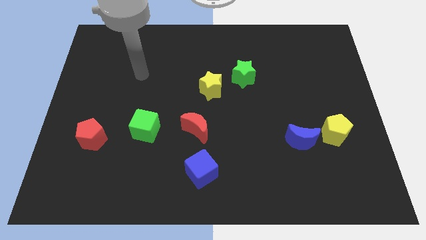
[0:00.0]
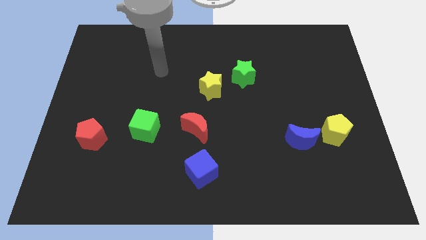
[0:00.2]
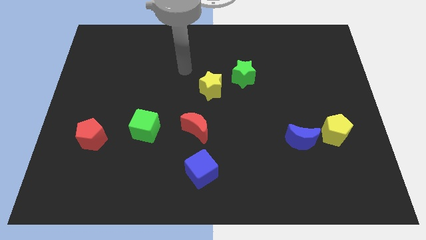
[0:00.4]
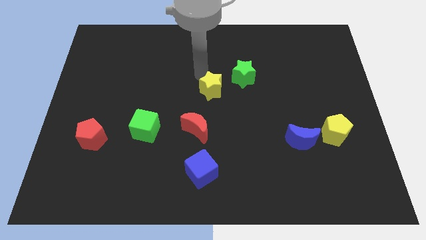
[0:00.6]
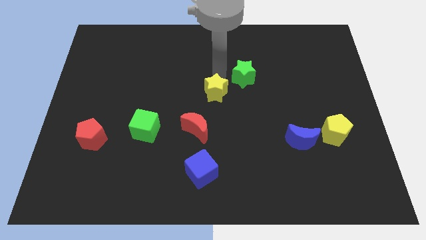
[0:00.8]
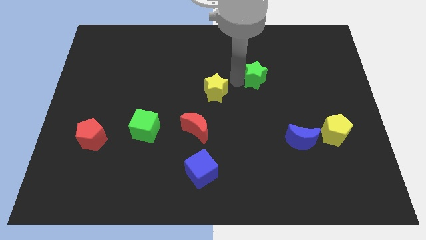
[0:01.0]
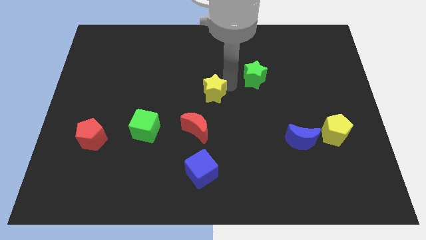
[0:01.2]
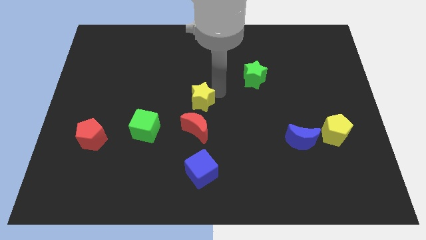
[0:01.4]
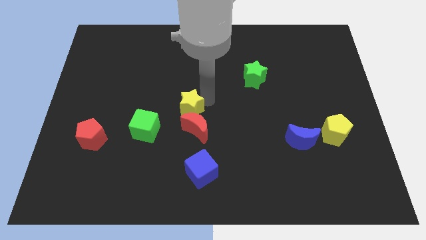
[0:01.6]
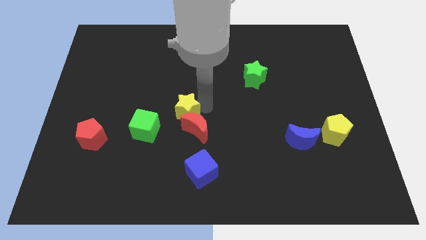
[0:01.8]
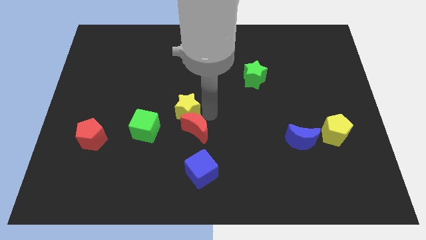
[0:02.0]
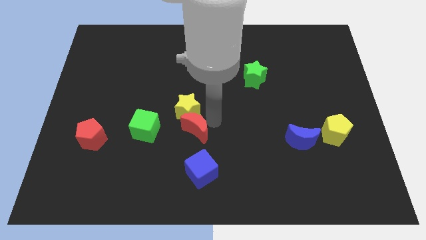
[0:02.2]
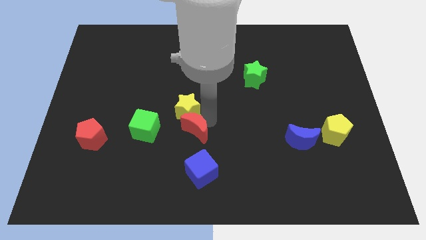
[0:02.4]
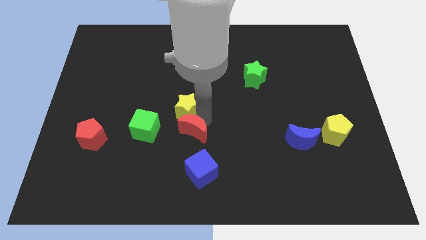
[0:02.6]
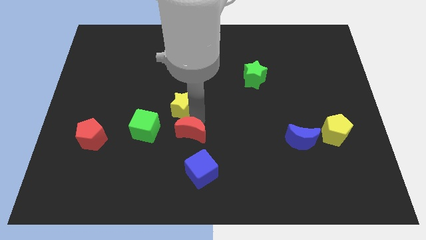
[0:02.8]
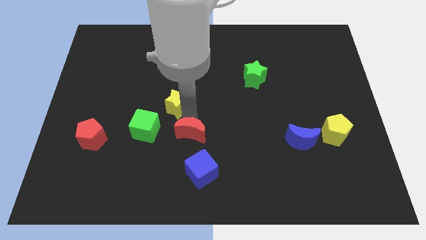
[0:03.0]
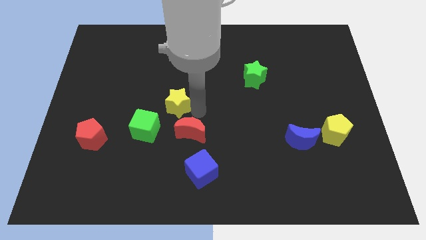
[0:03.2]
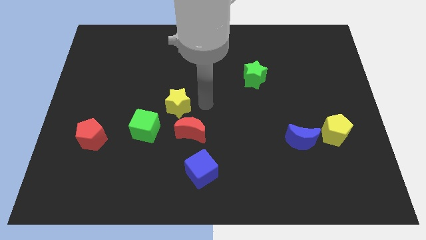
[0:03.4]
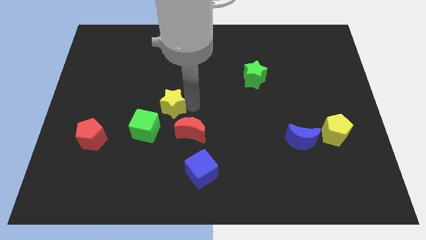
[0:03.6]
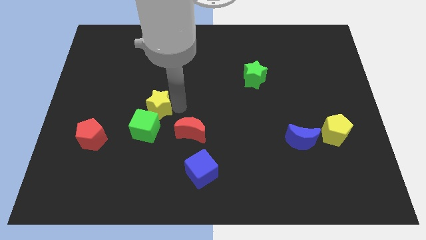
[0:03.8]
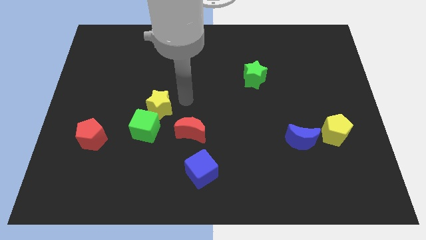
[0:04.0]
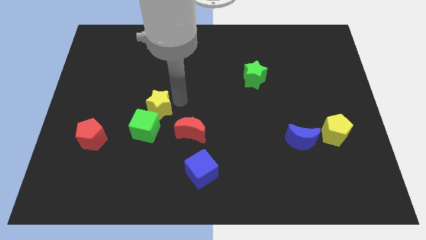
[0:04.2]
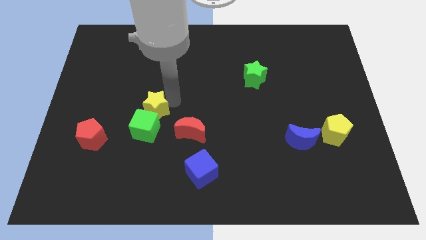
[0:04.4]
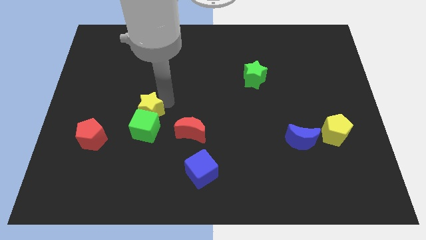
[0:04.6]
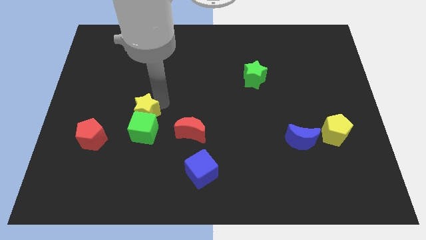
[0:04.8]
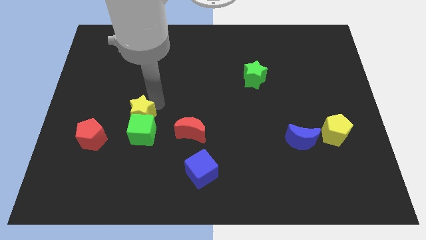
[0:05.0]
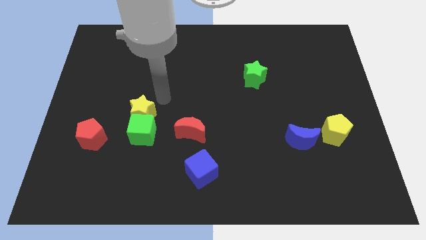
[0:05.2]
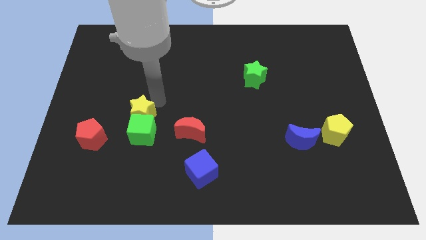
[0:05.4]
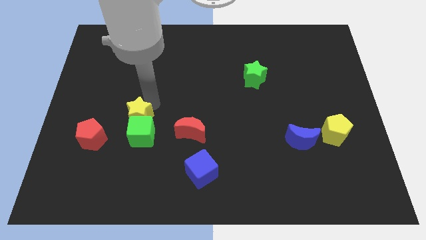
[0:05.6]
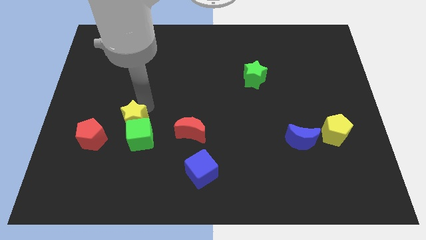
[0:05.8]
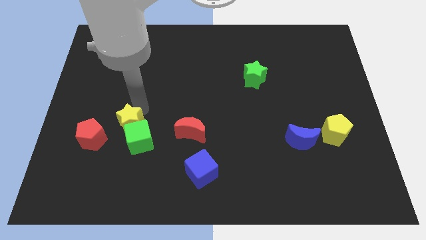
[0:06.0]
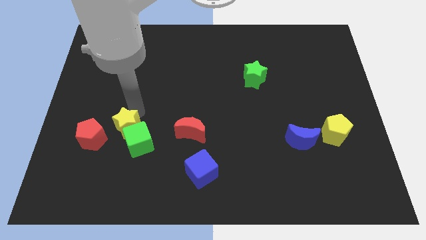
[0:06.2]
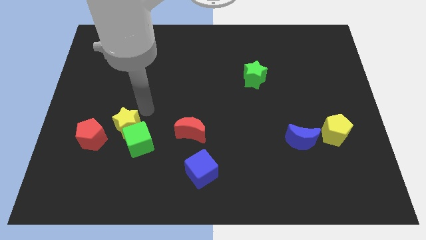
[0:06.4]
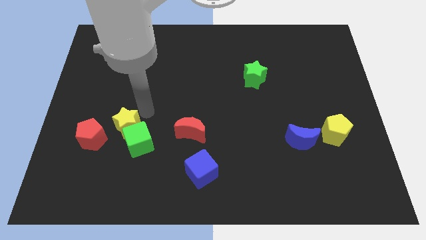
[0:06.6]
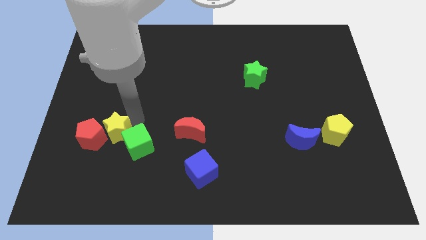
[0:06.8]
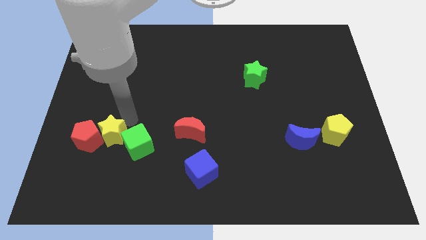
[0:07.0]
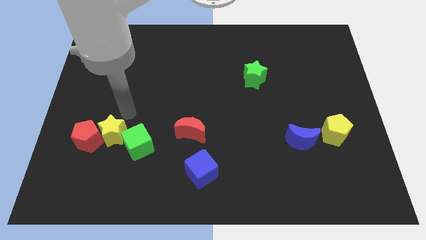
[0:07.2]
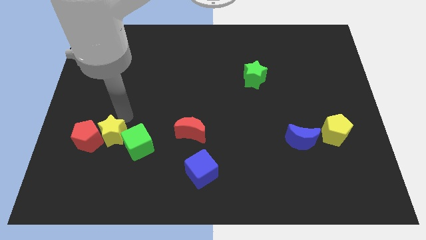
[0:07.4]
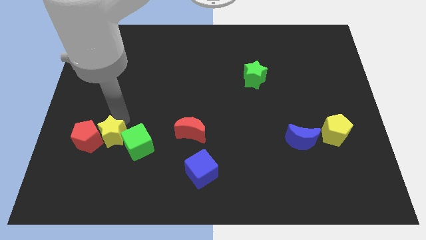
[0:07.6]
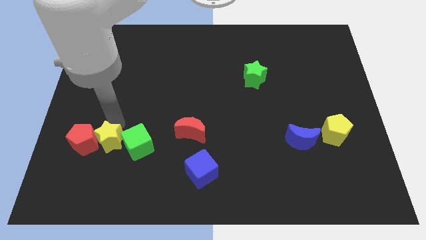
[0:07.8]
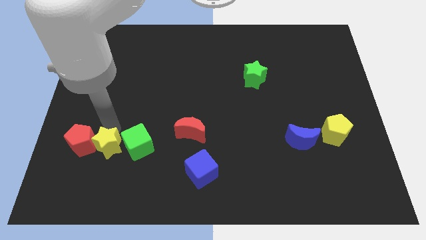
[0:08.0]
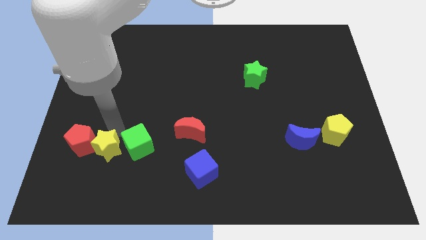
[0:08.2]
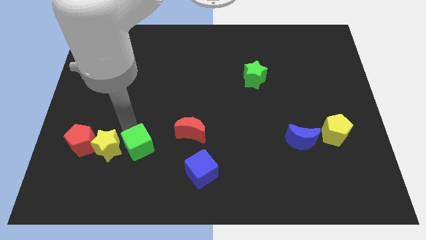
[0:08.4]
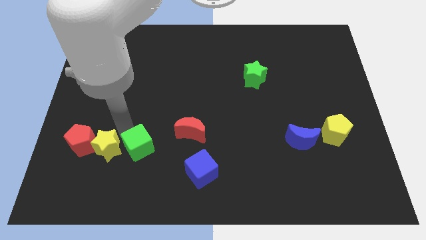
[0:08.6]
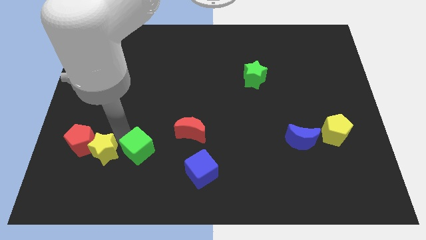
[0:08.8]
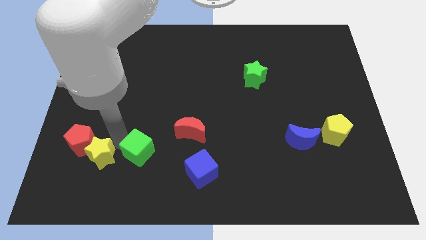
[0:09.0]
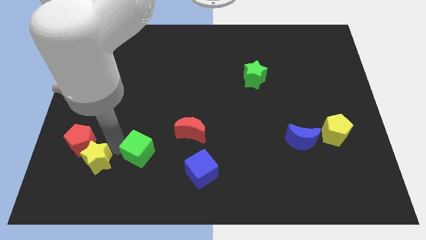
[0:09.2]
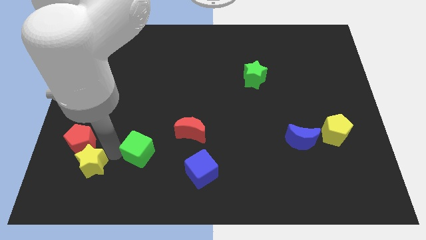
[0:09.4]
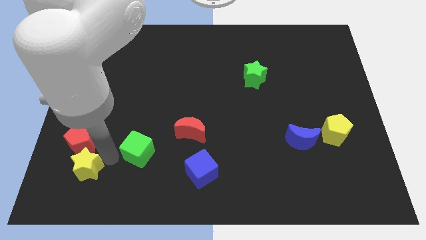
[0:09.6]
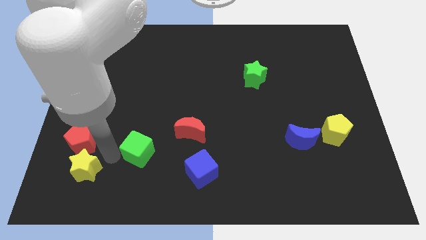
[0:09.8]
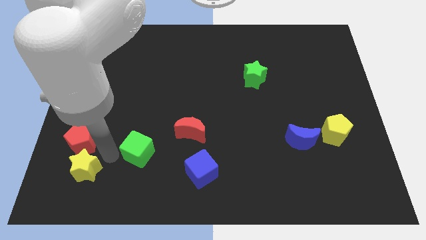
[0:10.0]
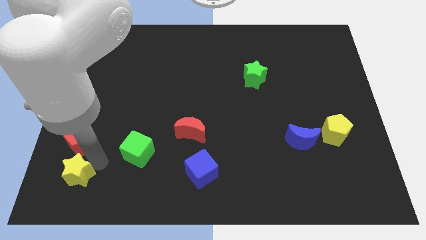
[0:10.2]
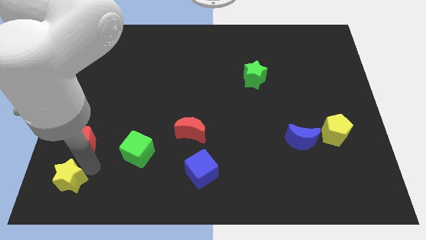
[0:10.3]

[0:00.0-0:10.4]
move the yellow star to the lower left corner

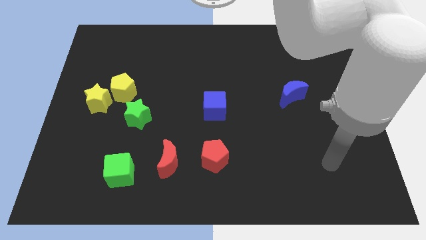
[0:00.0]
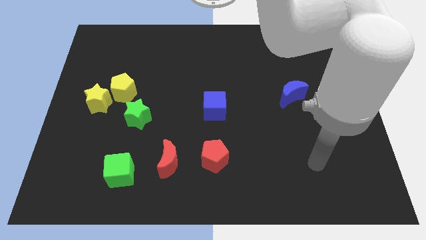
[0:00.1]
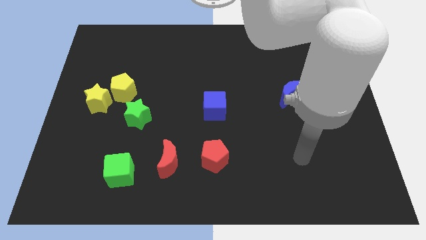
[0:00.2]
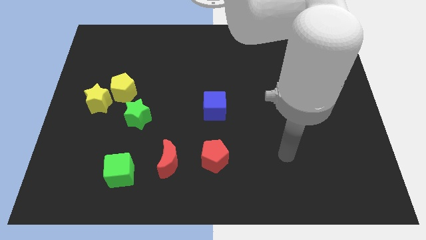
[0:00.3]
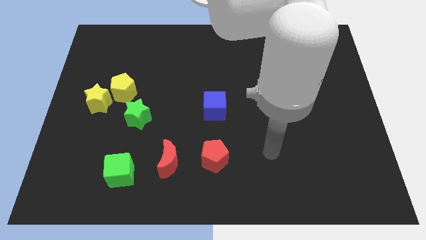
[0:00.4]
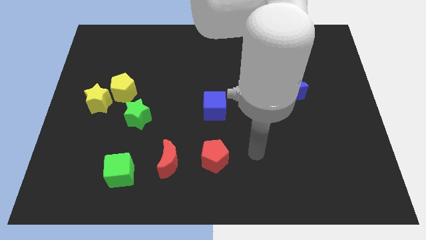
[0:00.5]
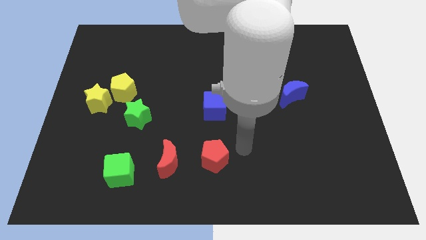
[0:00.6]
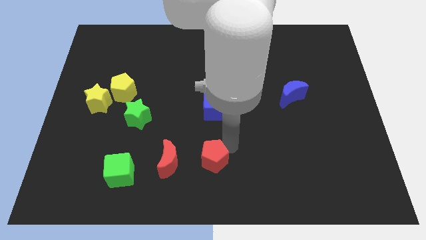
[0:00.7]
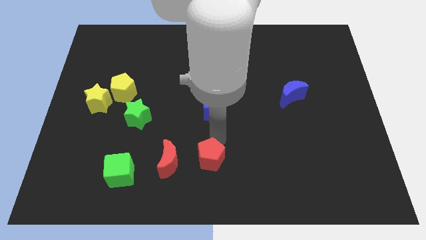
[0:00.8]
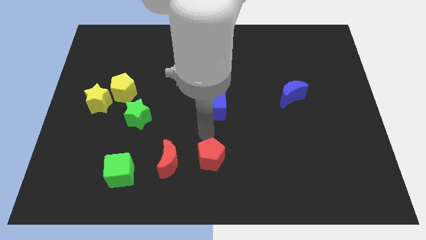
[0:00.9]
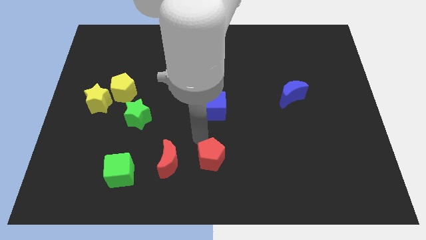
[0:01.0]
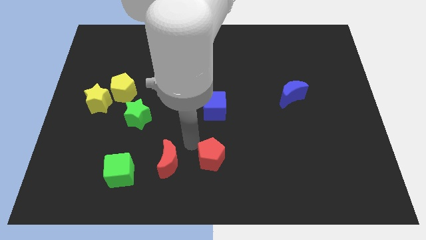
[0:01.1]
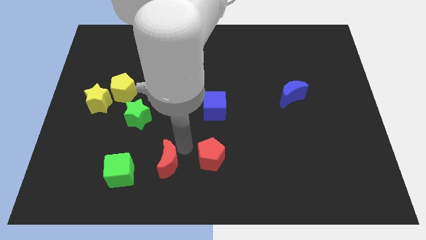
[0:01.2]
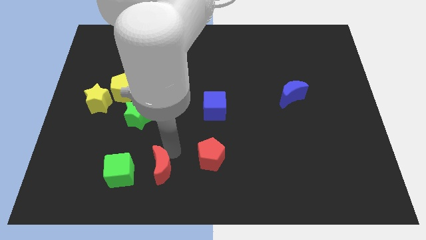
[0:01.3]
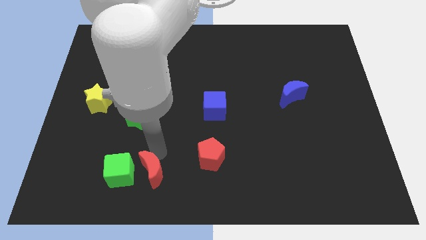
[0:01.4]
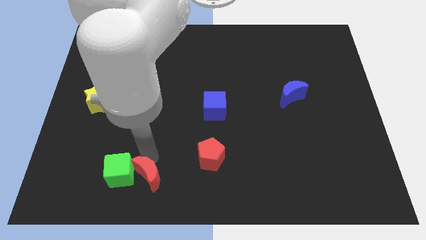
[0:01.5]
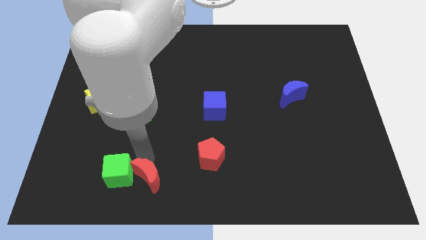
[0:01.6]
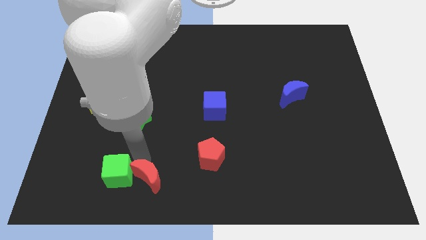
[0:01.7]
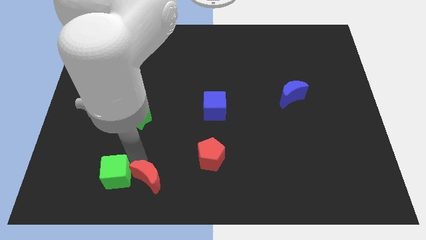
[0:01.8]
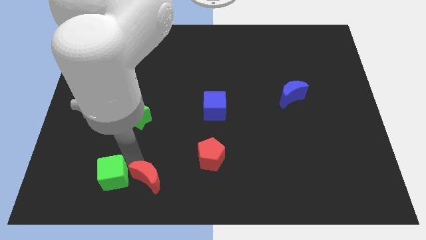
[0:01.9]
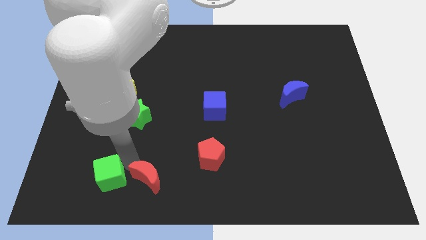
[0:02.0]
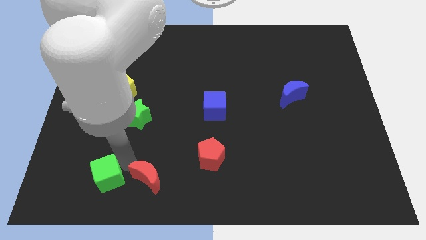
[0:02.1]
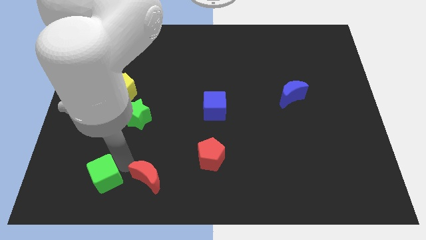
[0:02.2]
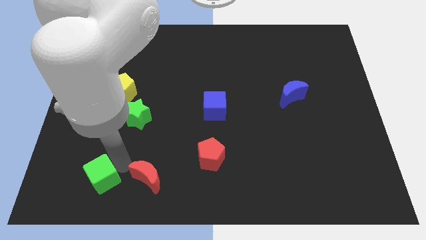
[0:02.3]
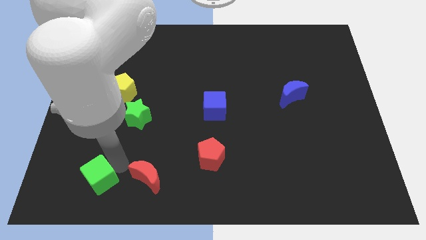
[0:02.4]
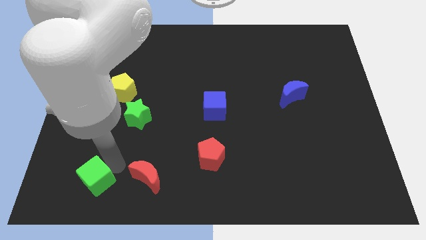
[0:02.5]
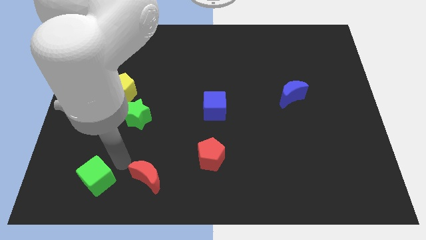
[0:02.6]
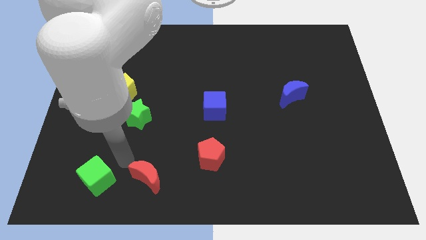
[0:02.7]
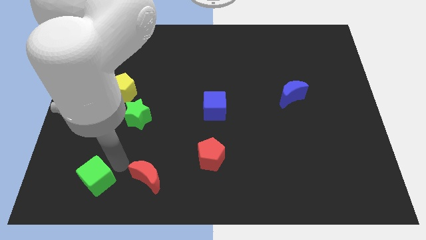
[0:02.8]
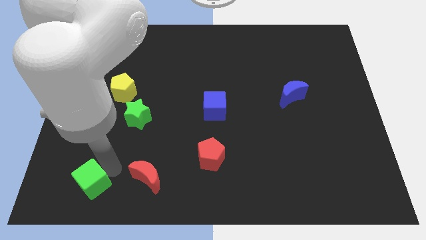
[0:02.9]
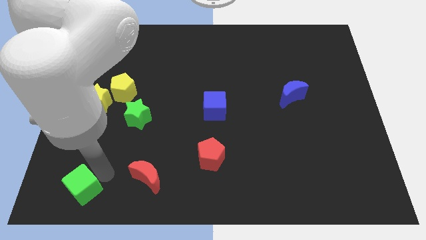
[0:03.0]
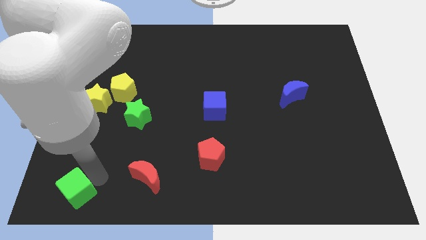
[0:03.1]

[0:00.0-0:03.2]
put the green cube to the bottom left
